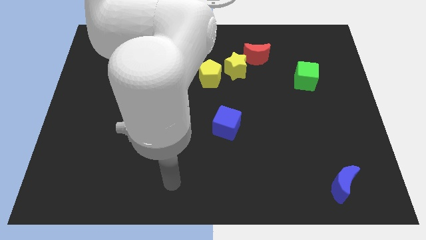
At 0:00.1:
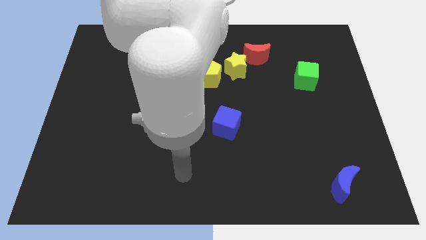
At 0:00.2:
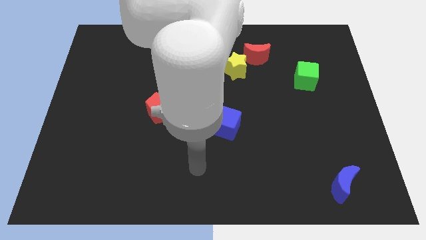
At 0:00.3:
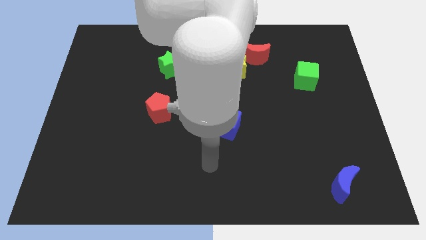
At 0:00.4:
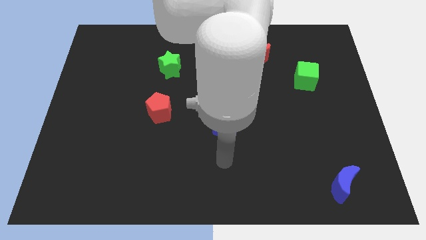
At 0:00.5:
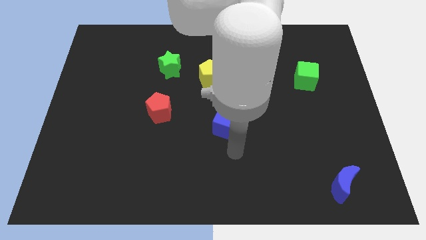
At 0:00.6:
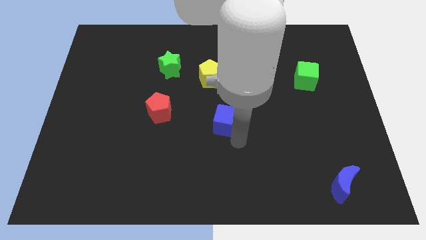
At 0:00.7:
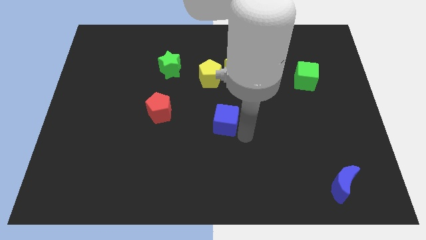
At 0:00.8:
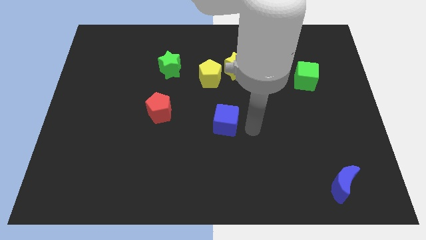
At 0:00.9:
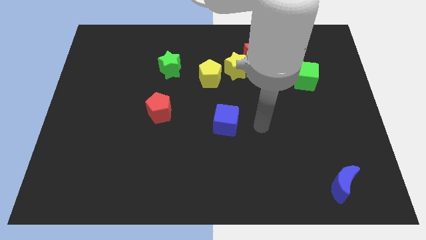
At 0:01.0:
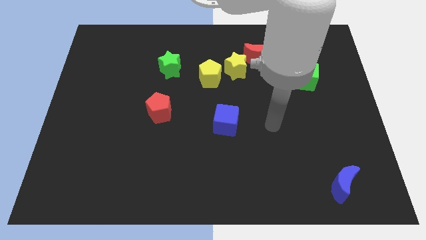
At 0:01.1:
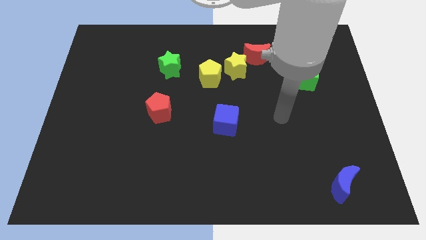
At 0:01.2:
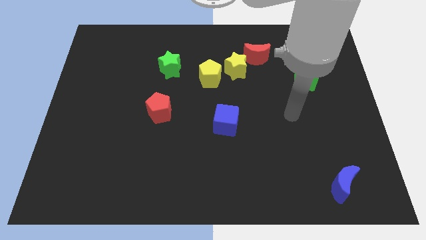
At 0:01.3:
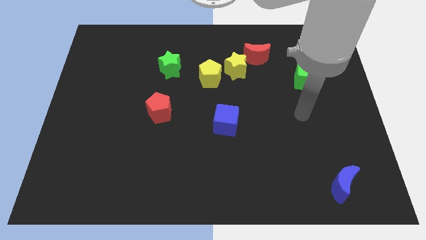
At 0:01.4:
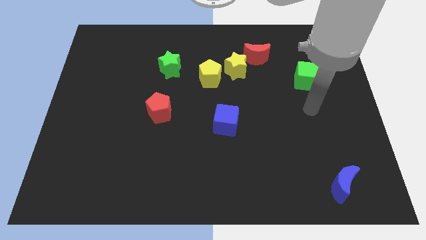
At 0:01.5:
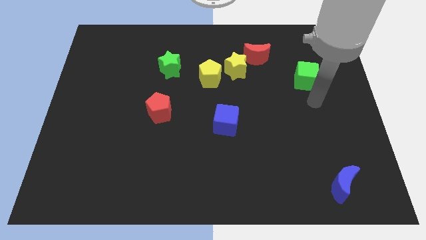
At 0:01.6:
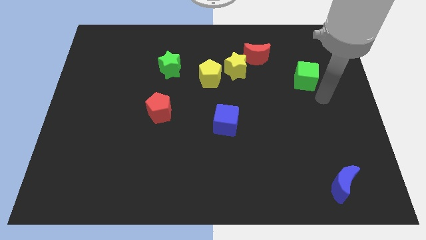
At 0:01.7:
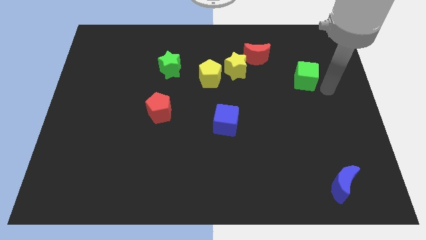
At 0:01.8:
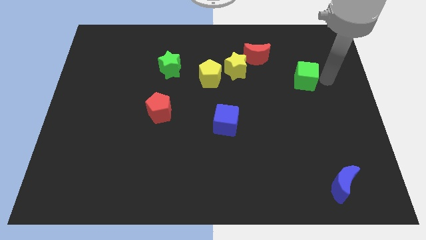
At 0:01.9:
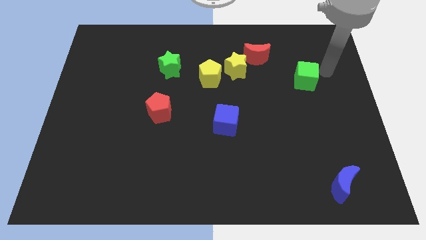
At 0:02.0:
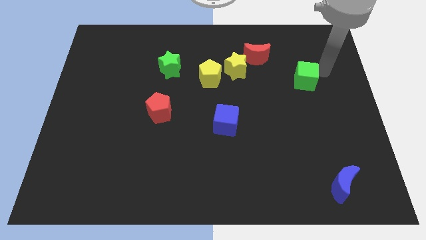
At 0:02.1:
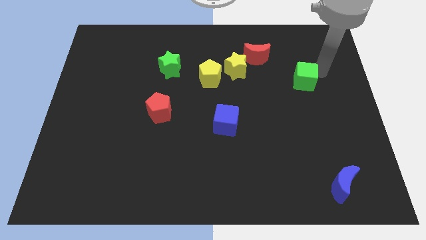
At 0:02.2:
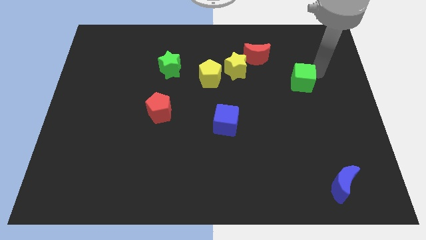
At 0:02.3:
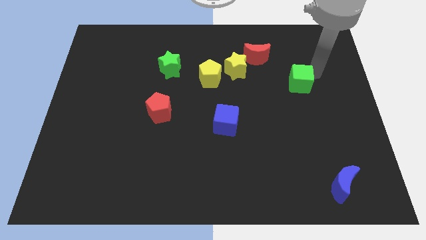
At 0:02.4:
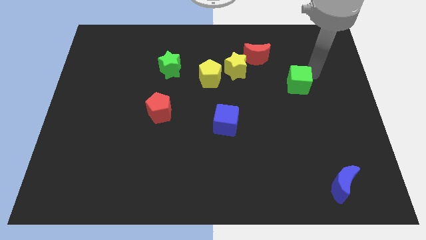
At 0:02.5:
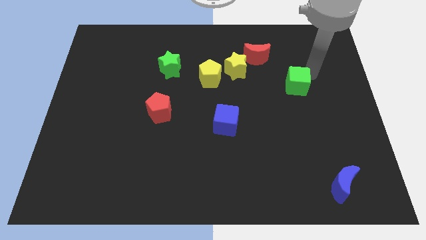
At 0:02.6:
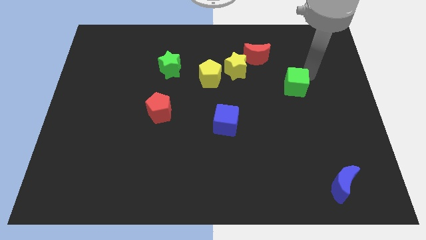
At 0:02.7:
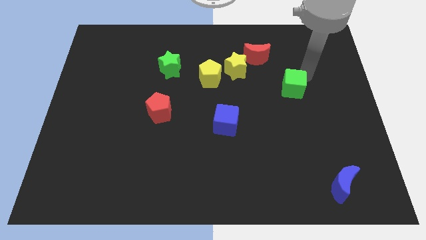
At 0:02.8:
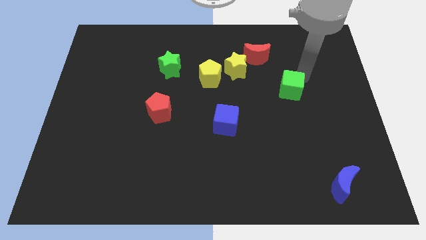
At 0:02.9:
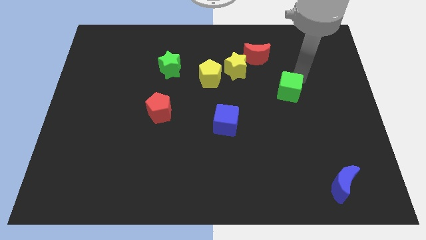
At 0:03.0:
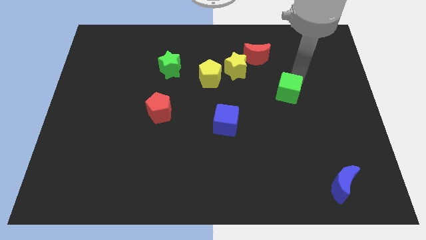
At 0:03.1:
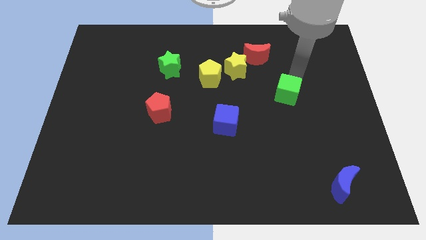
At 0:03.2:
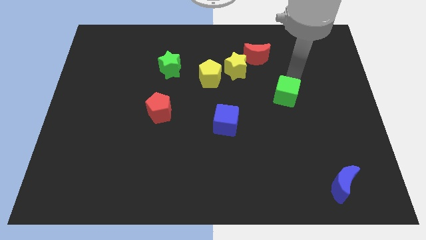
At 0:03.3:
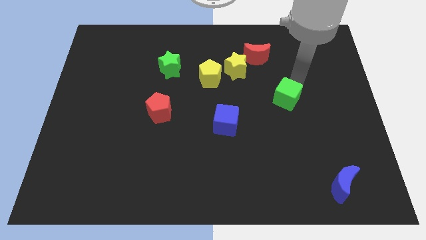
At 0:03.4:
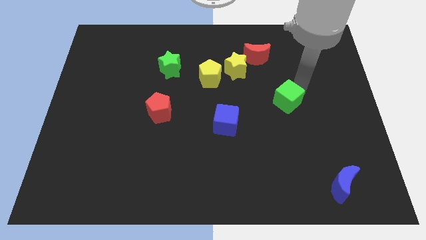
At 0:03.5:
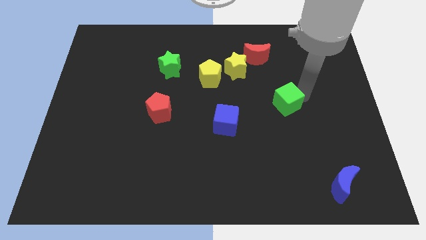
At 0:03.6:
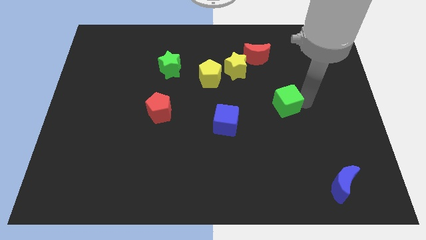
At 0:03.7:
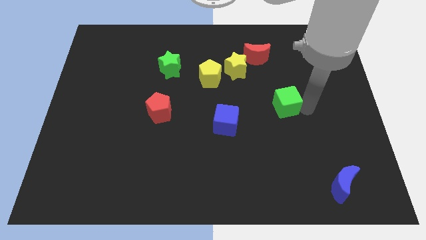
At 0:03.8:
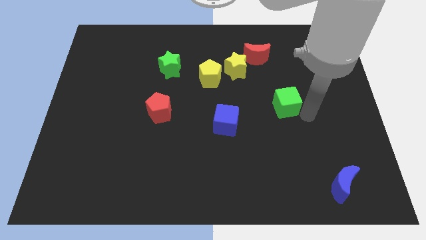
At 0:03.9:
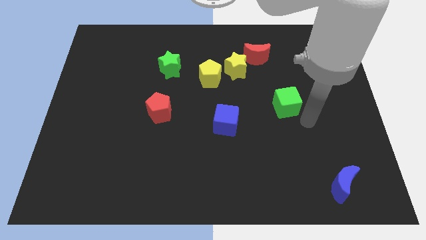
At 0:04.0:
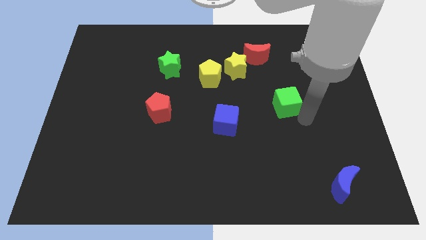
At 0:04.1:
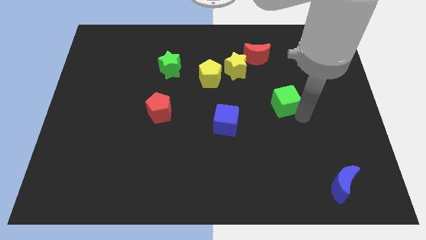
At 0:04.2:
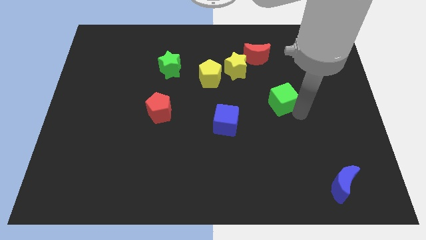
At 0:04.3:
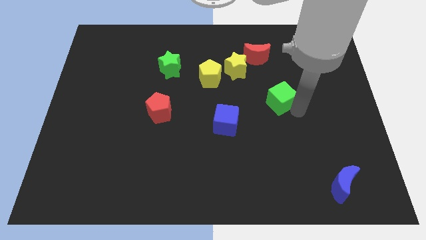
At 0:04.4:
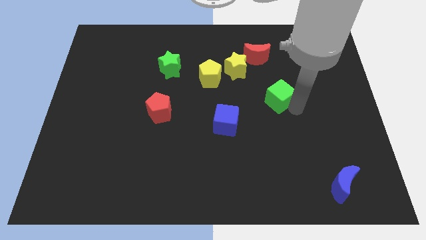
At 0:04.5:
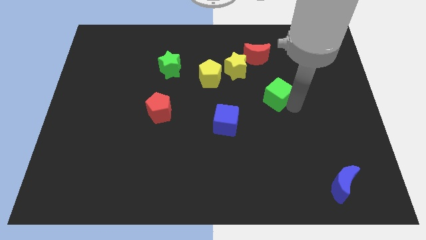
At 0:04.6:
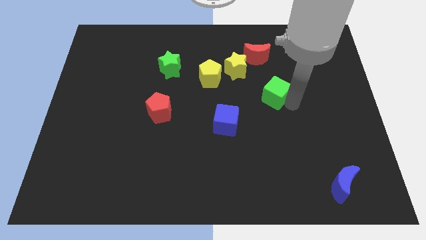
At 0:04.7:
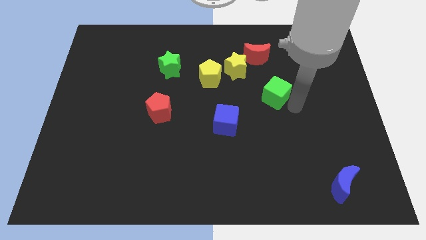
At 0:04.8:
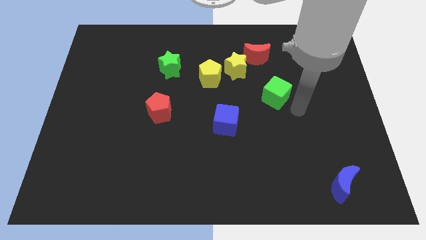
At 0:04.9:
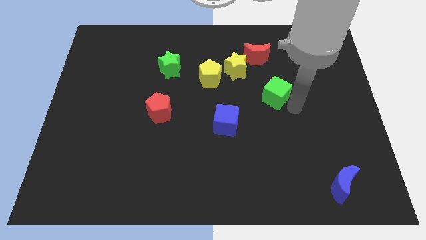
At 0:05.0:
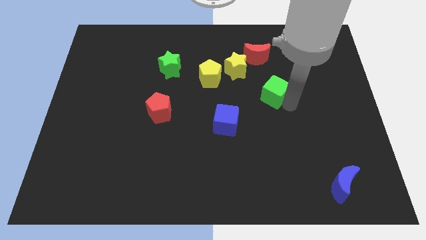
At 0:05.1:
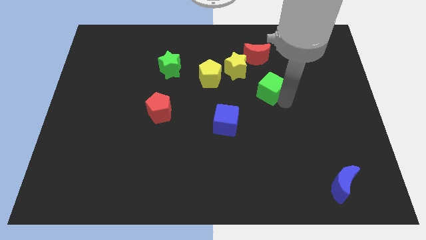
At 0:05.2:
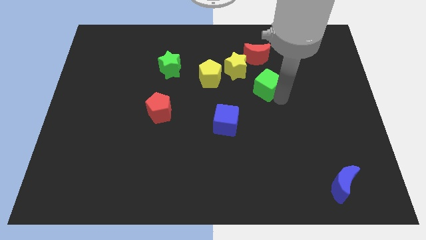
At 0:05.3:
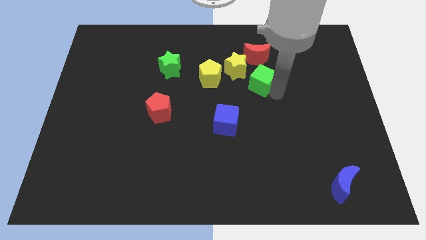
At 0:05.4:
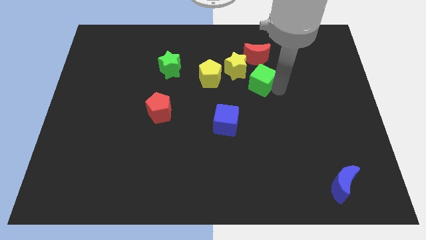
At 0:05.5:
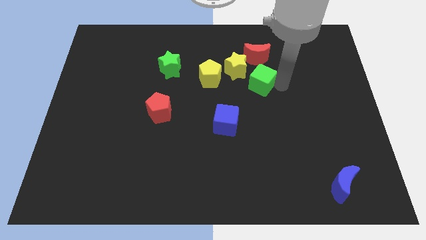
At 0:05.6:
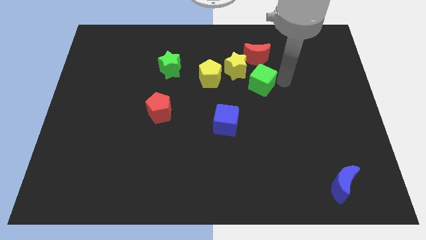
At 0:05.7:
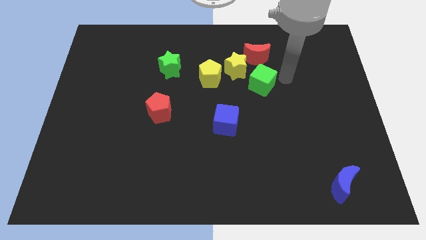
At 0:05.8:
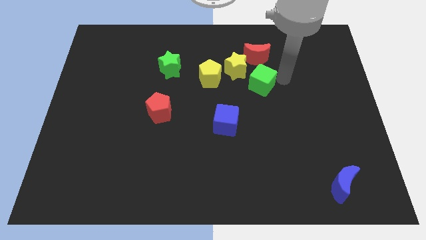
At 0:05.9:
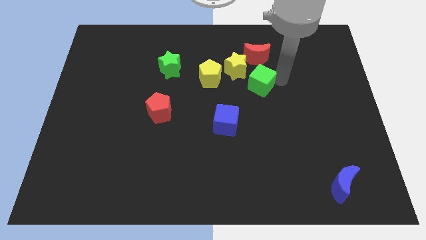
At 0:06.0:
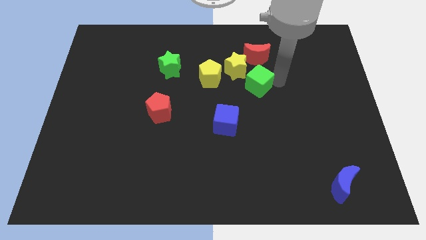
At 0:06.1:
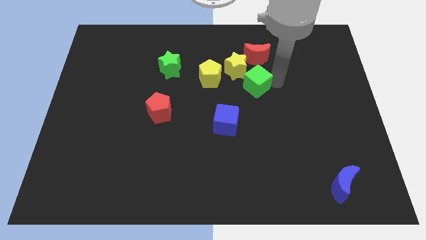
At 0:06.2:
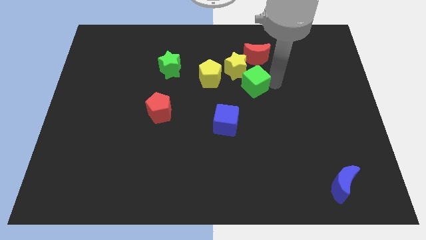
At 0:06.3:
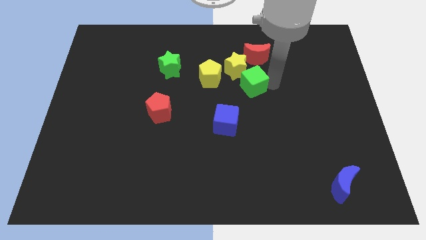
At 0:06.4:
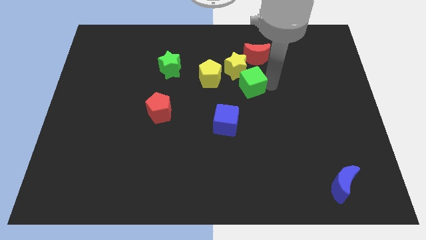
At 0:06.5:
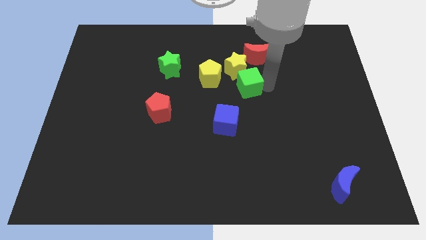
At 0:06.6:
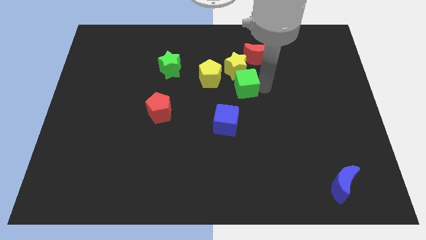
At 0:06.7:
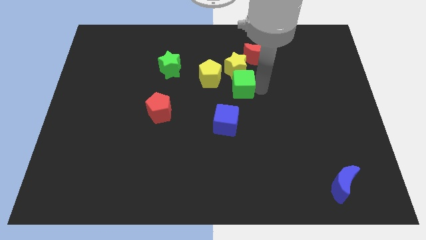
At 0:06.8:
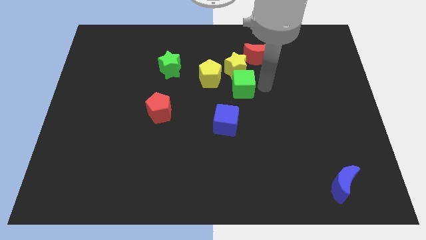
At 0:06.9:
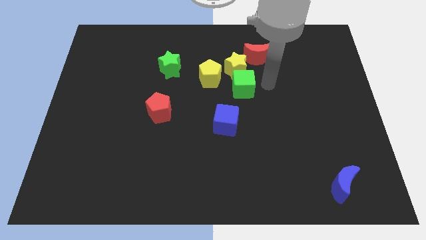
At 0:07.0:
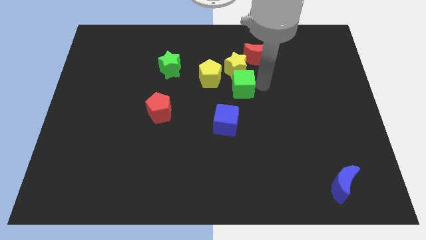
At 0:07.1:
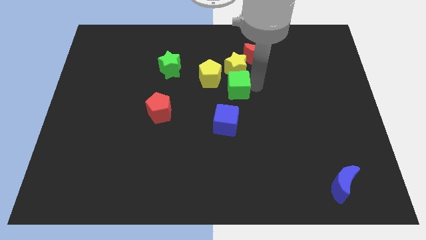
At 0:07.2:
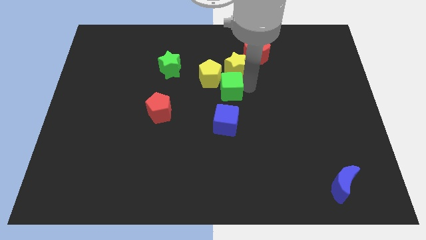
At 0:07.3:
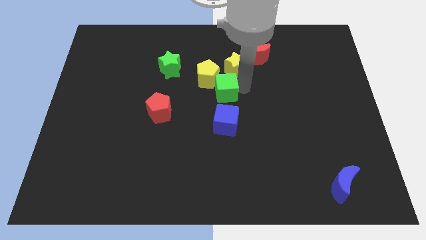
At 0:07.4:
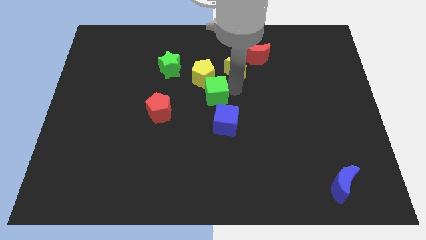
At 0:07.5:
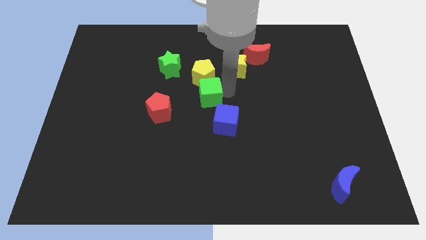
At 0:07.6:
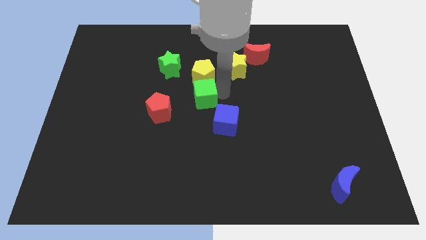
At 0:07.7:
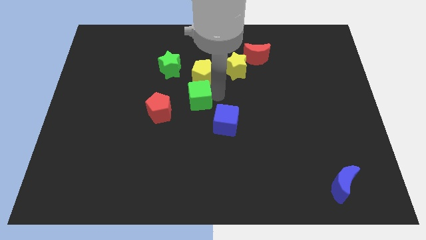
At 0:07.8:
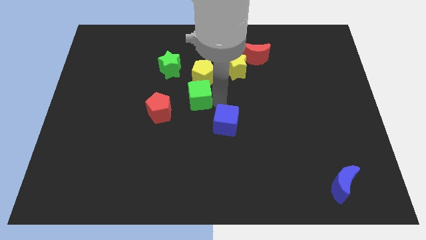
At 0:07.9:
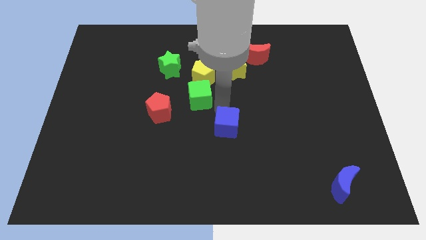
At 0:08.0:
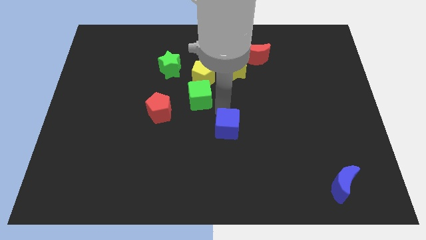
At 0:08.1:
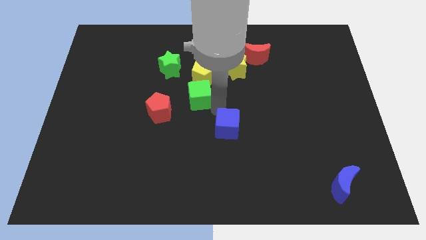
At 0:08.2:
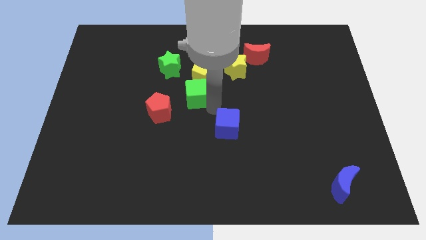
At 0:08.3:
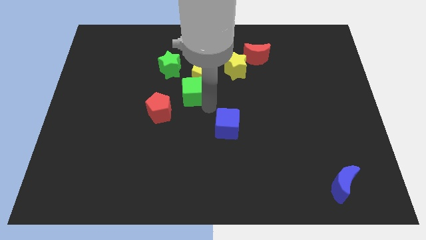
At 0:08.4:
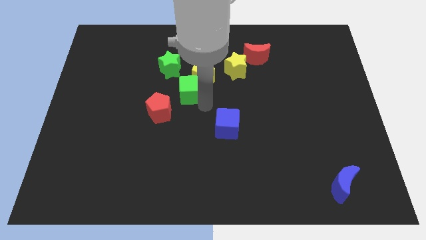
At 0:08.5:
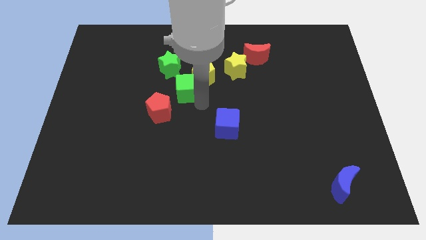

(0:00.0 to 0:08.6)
slide the green cube to the left of the yellow pentagon
